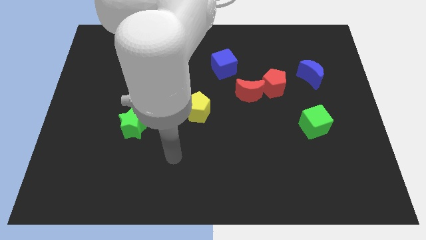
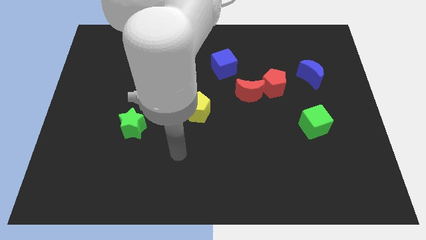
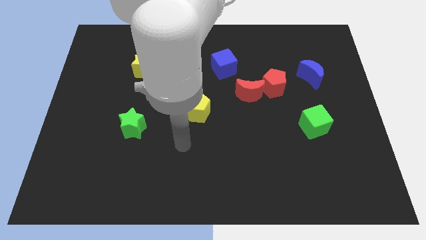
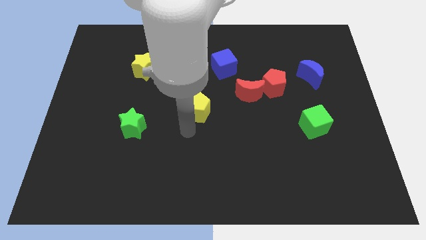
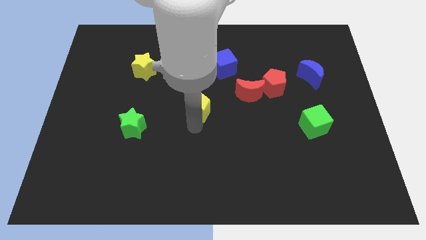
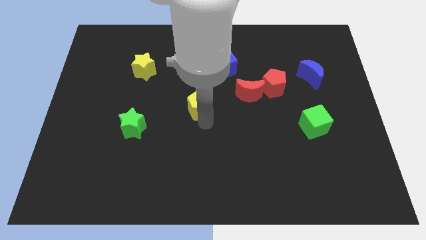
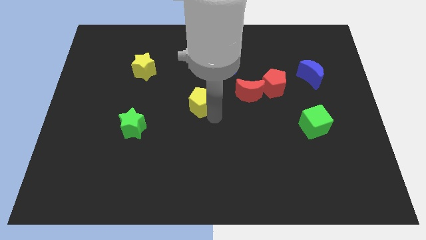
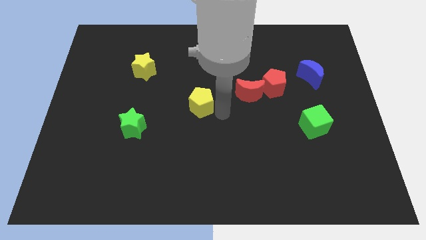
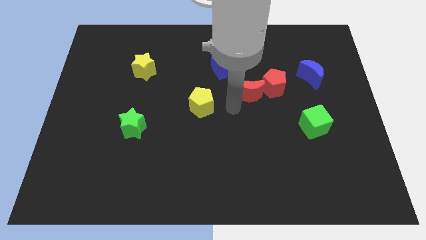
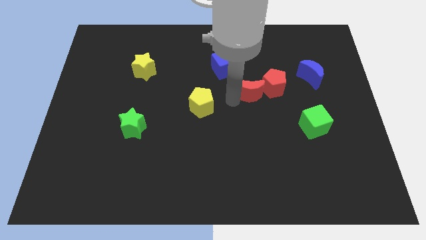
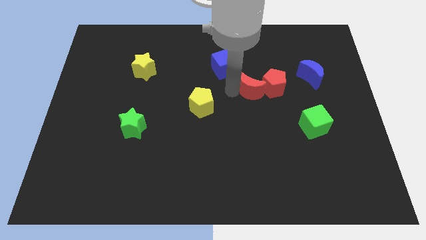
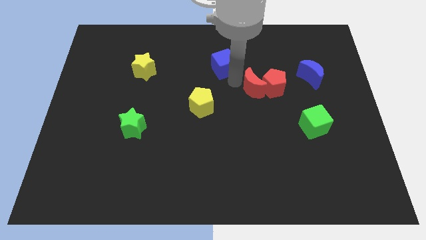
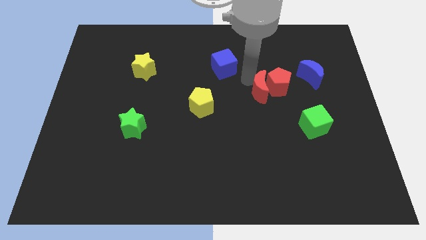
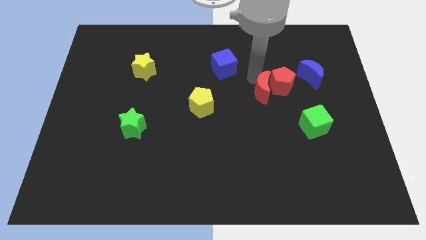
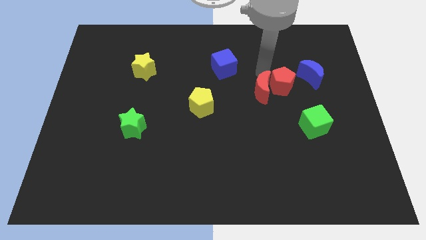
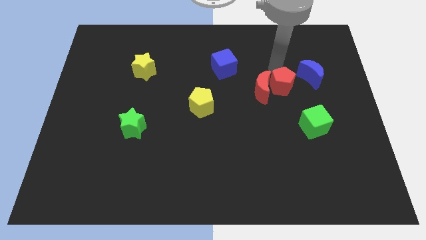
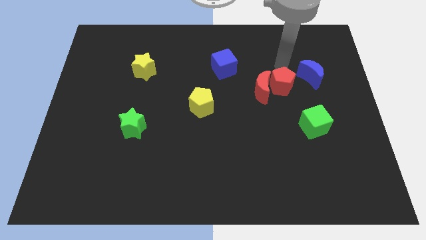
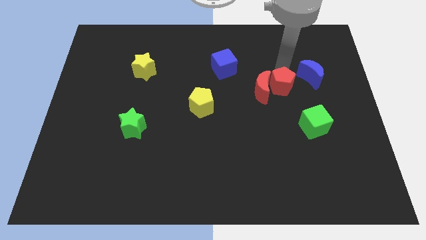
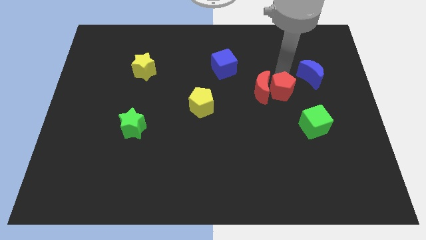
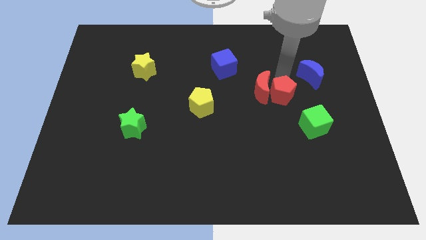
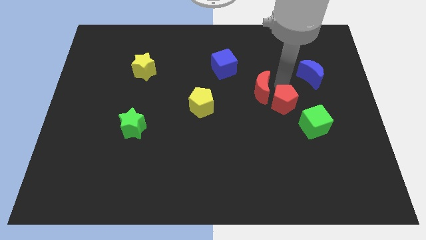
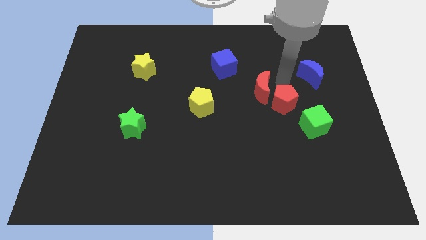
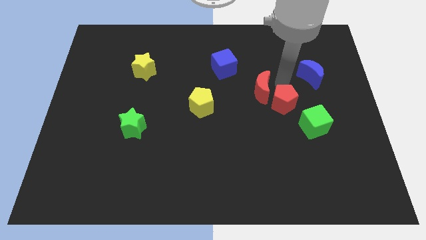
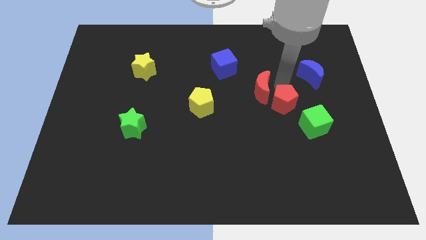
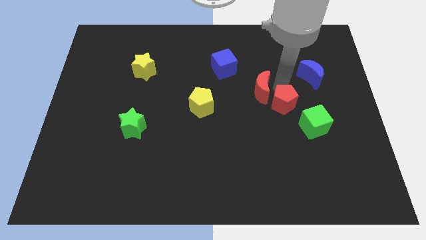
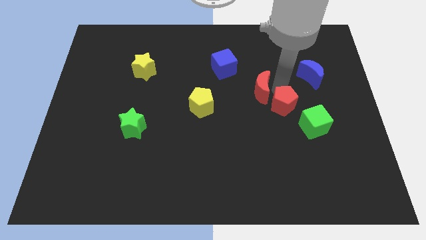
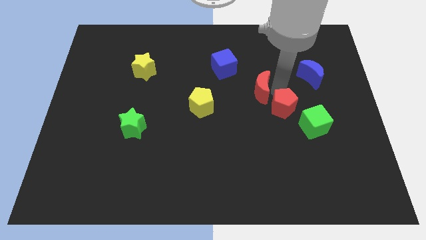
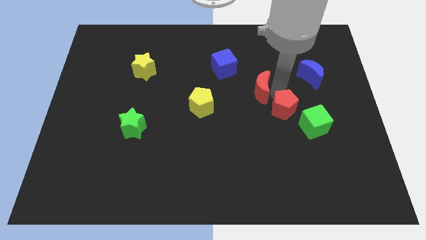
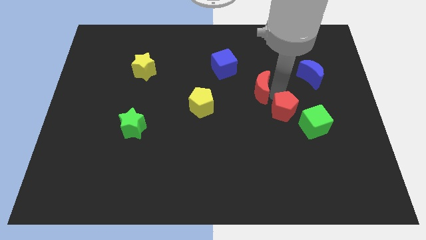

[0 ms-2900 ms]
push the red pentagon slightly down

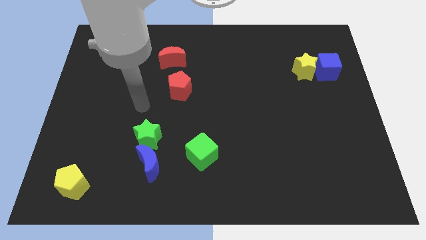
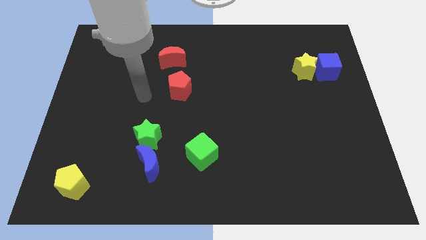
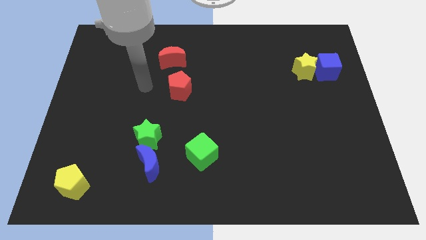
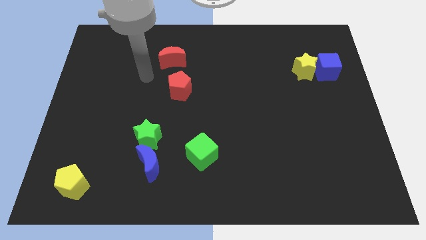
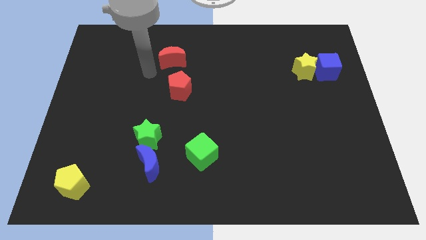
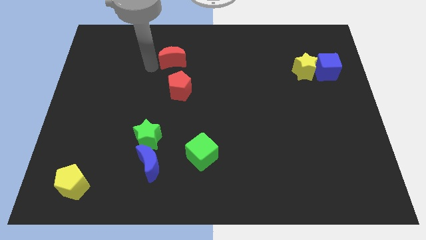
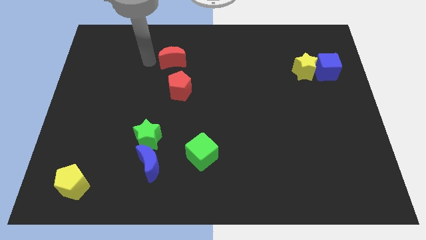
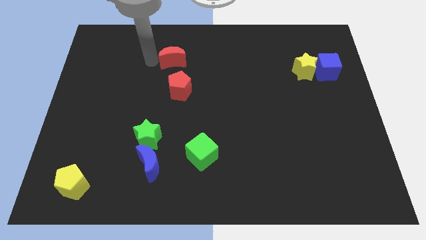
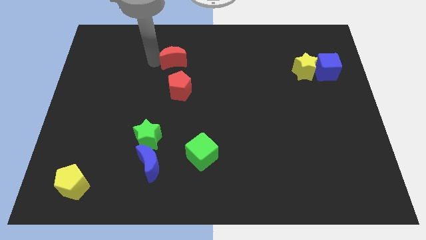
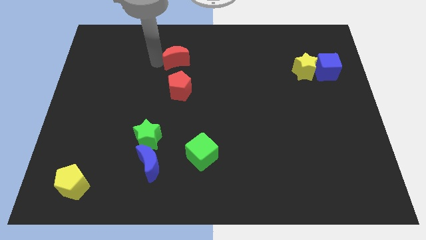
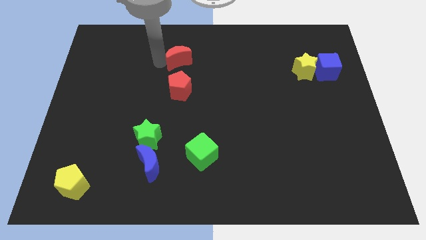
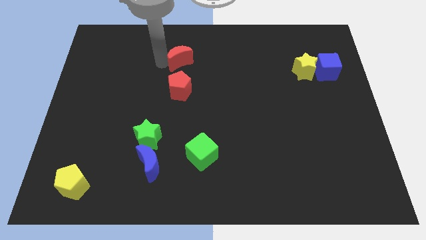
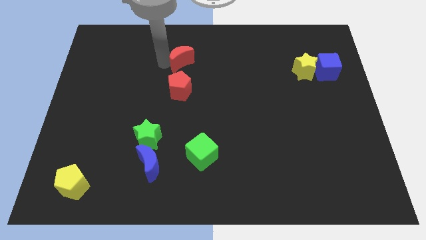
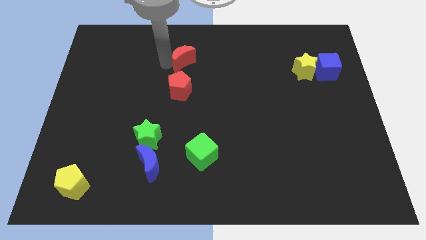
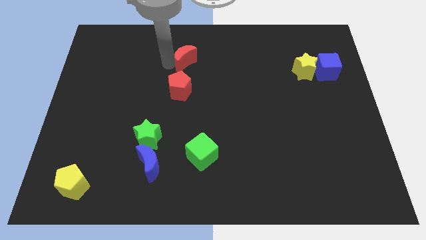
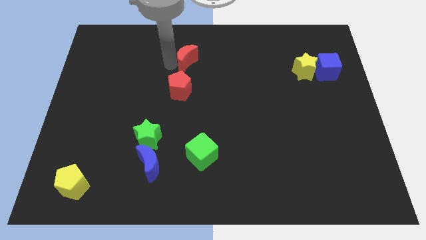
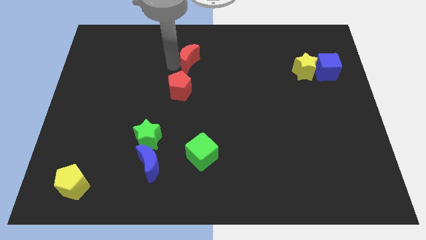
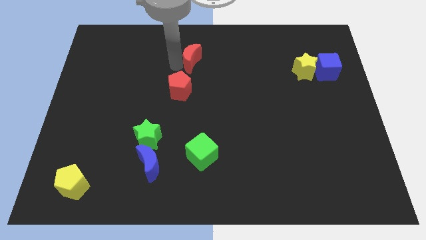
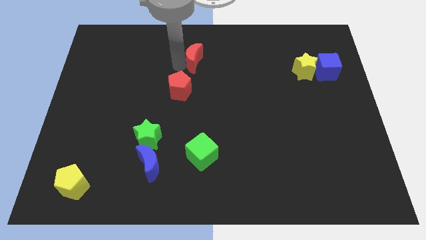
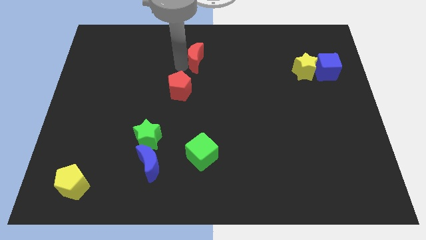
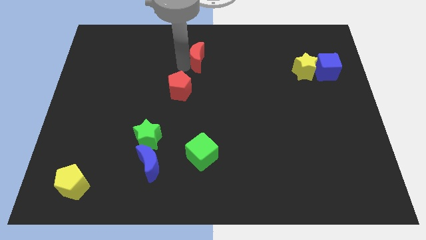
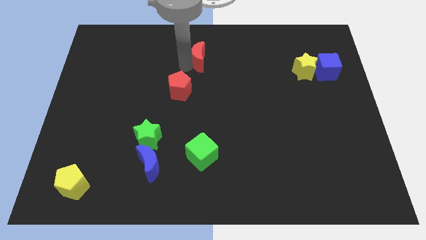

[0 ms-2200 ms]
move the red moon to the right somewhat

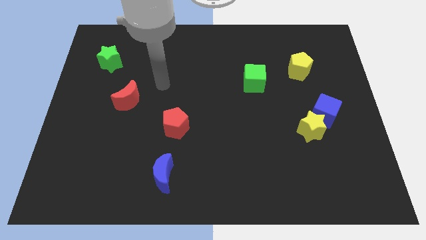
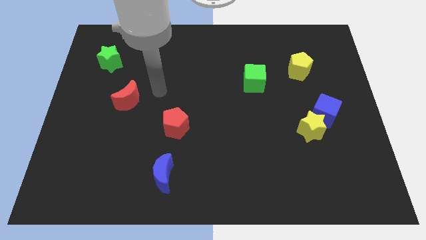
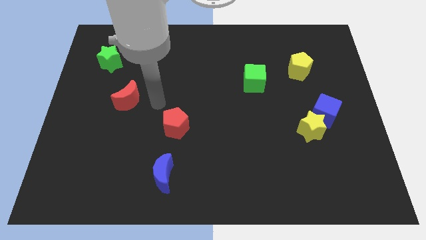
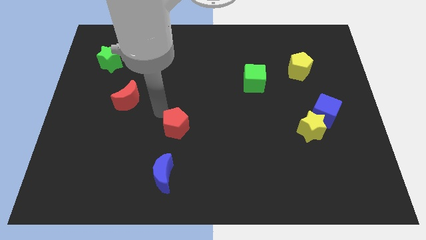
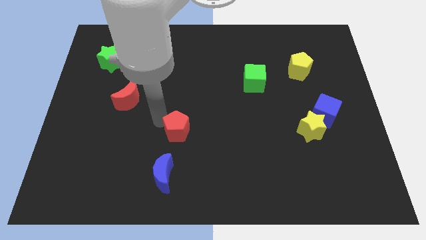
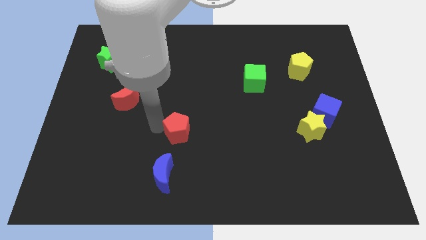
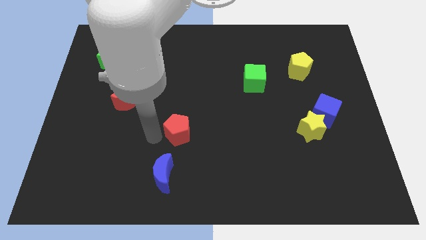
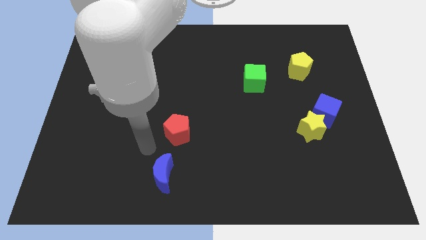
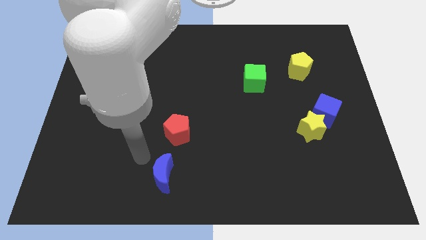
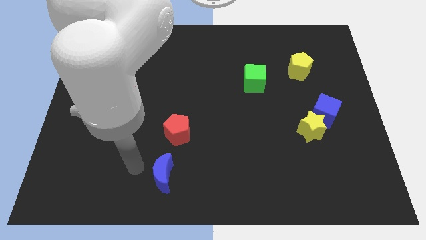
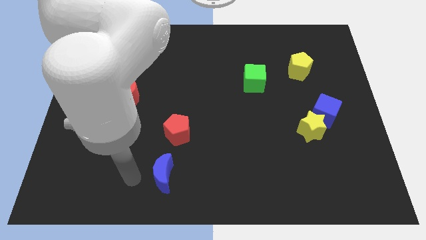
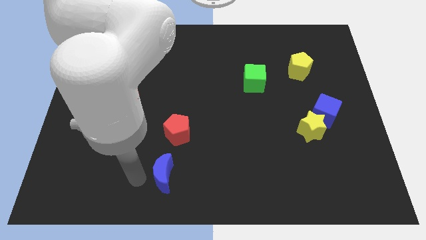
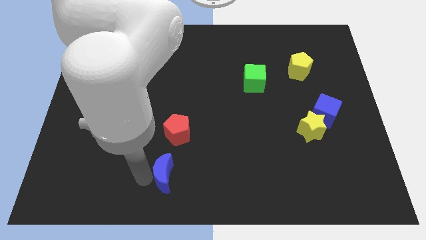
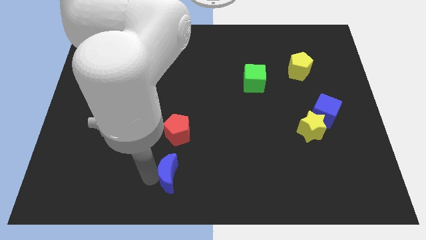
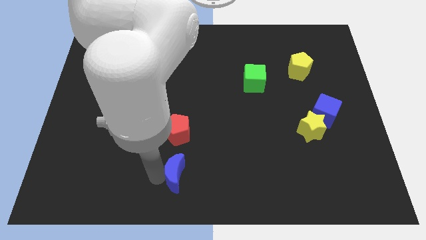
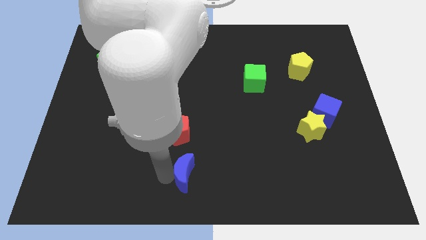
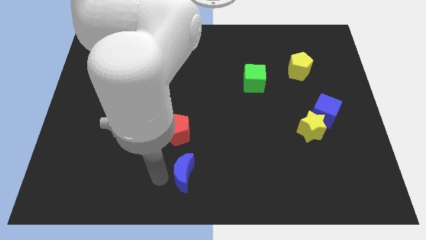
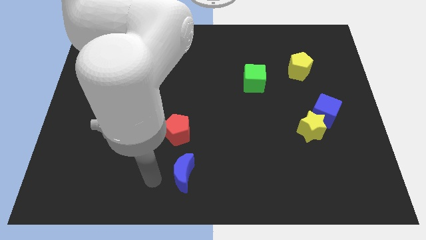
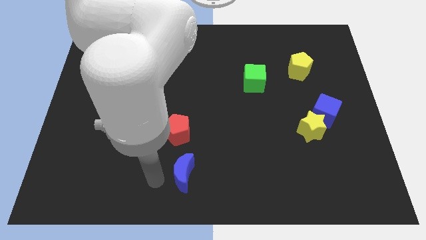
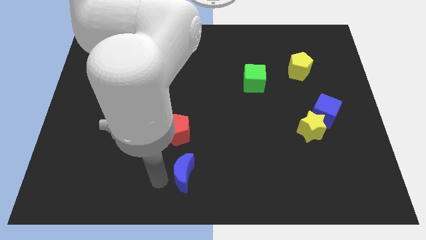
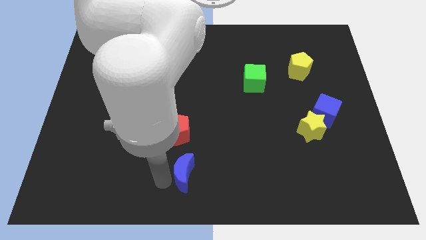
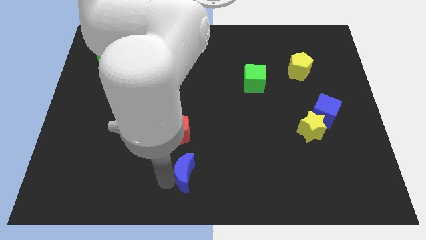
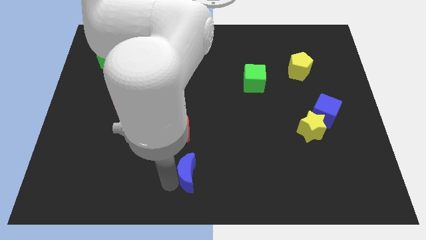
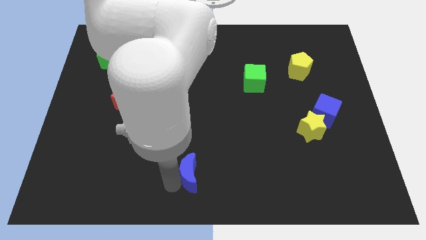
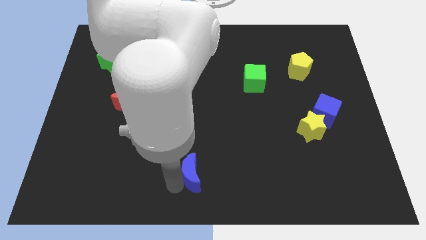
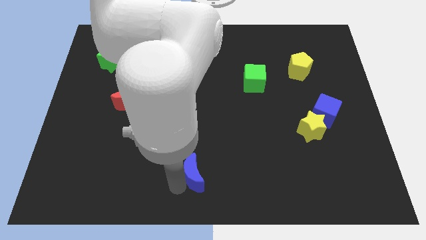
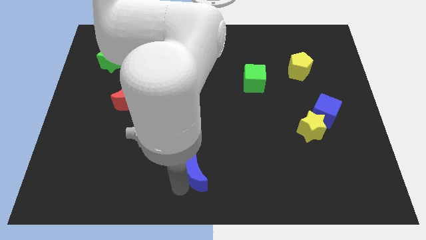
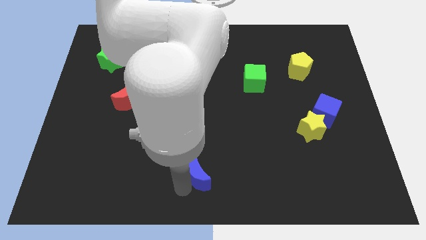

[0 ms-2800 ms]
move the blue moon to the right slightly

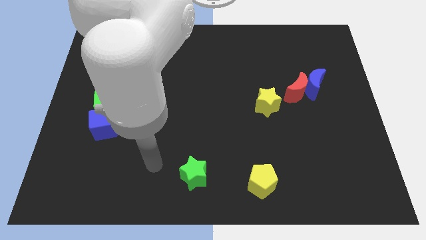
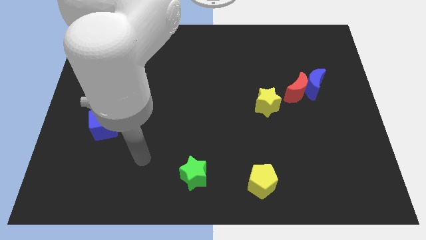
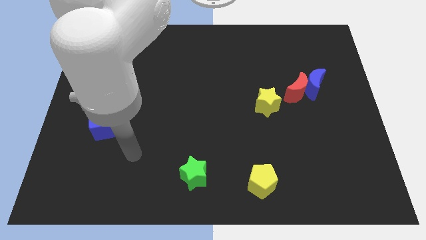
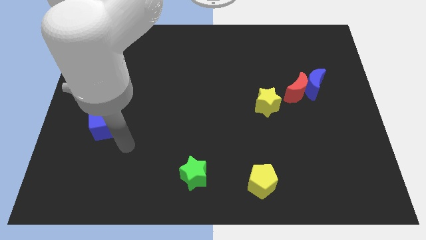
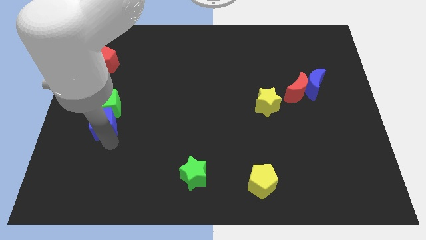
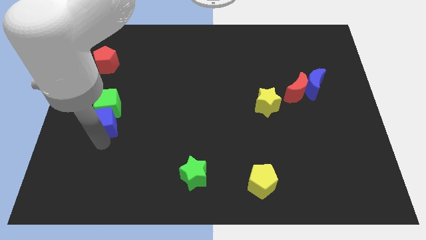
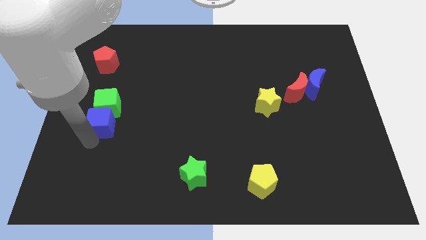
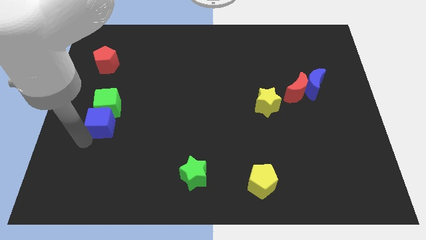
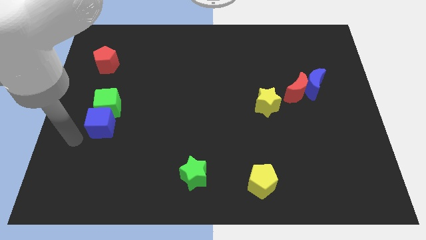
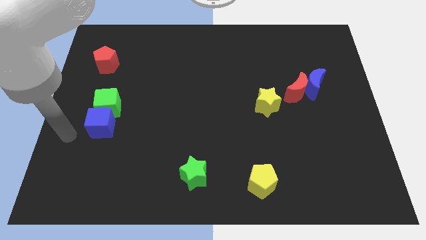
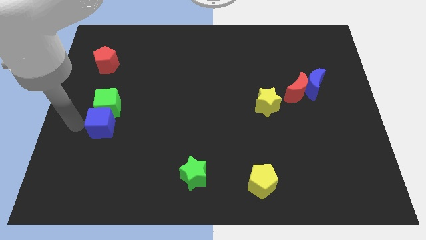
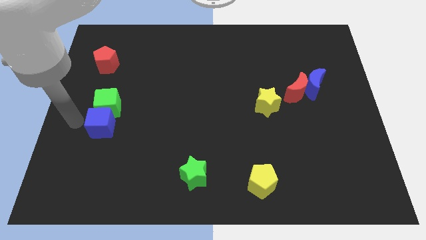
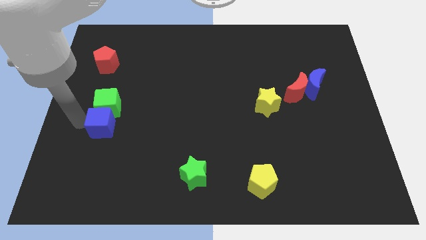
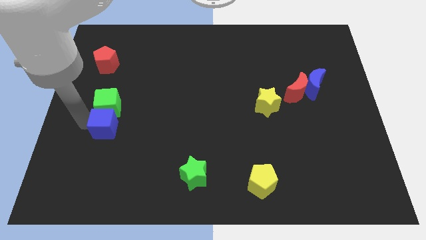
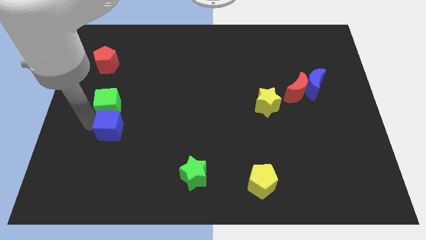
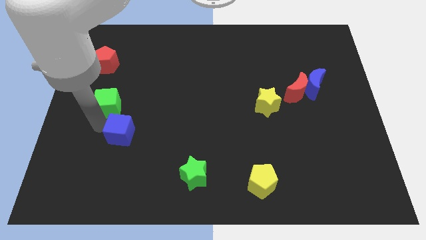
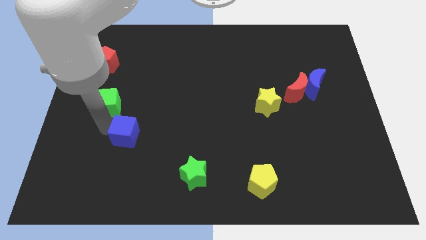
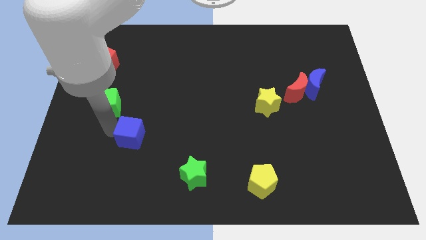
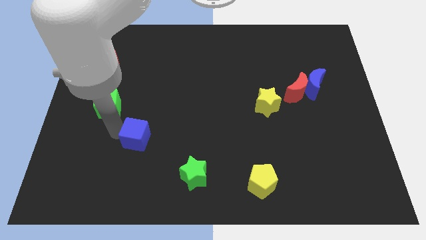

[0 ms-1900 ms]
slightly slide the blue cube right
